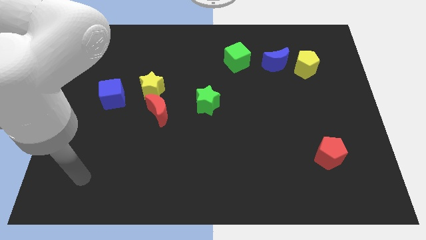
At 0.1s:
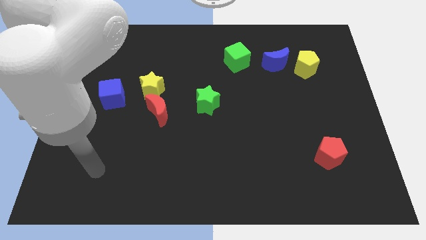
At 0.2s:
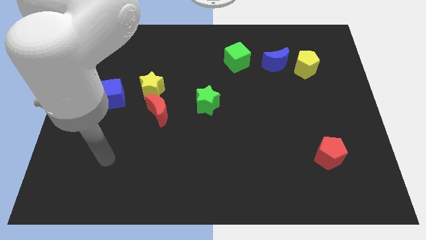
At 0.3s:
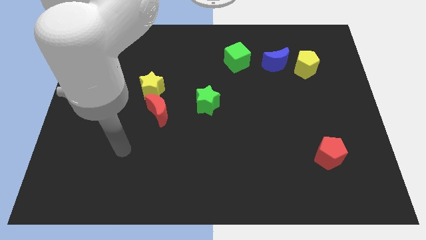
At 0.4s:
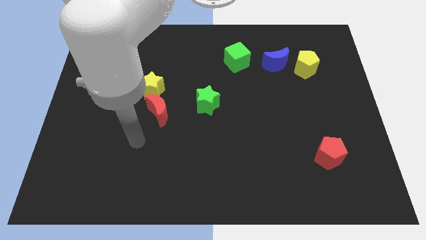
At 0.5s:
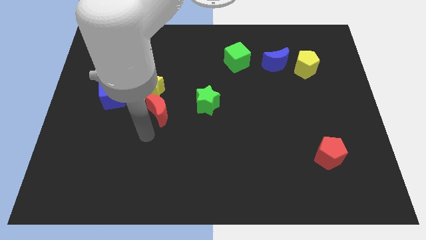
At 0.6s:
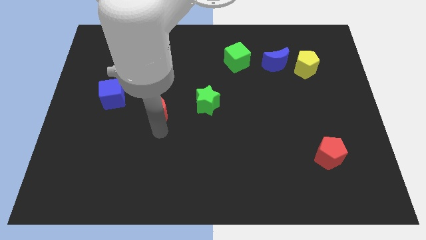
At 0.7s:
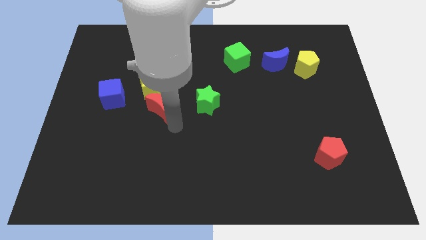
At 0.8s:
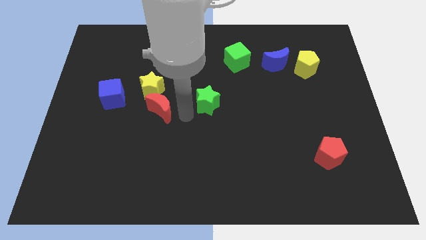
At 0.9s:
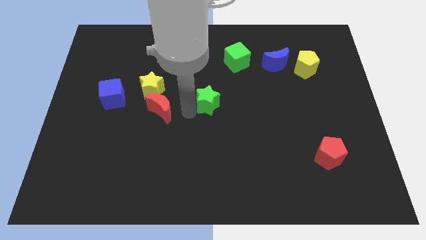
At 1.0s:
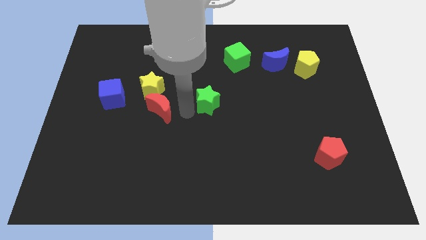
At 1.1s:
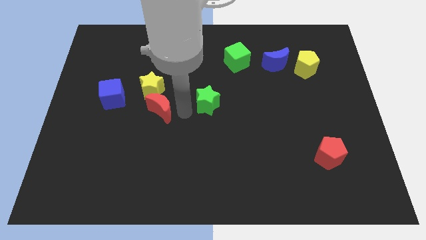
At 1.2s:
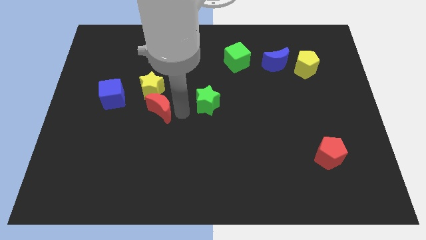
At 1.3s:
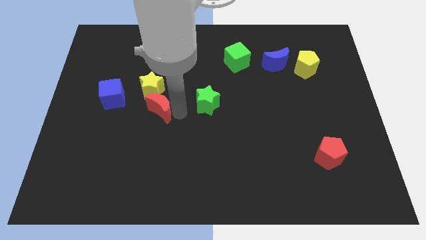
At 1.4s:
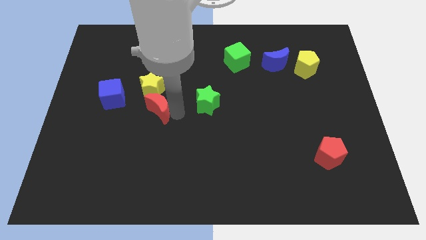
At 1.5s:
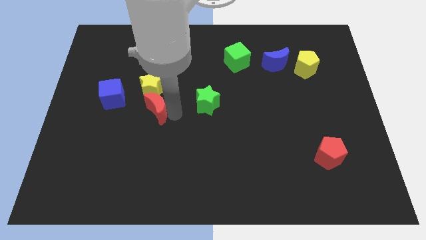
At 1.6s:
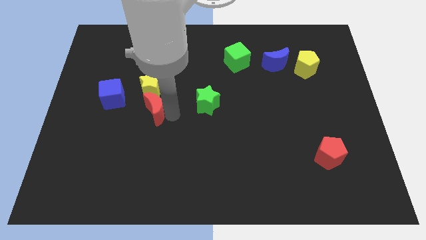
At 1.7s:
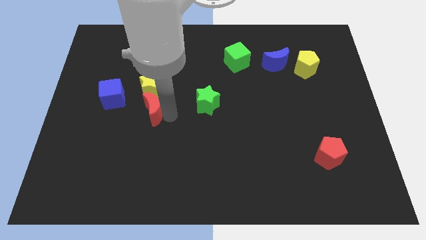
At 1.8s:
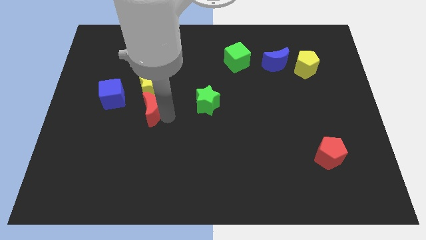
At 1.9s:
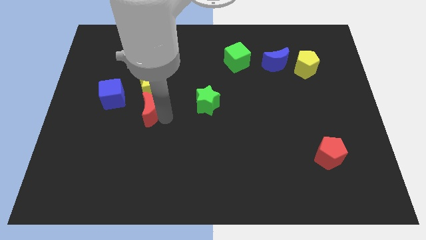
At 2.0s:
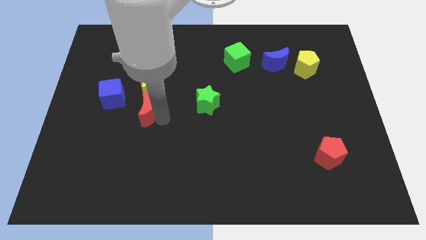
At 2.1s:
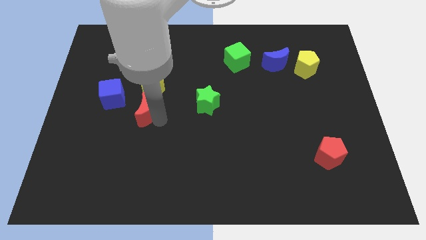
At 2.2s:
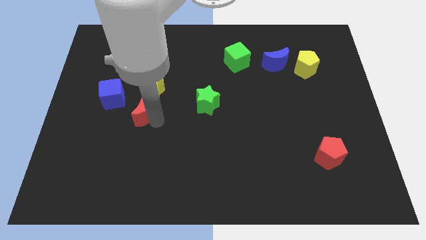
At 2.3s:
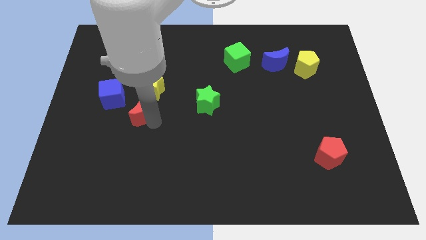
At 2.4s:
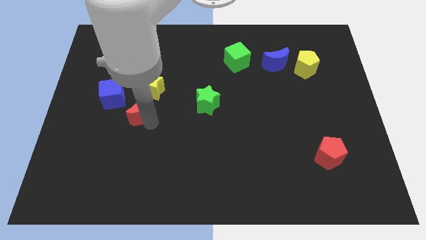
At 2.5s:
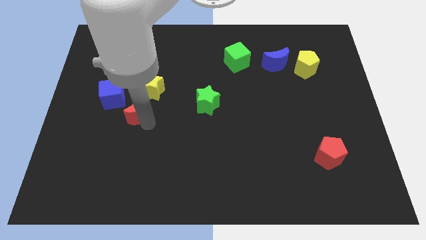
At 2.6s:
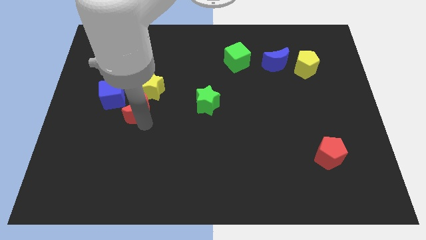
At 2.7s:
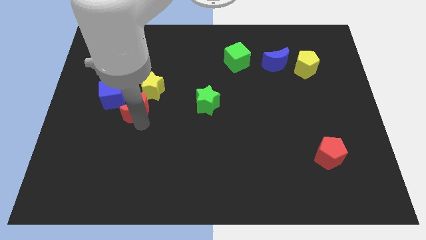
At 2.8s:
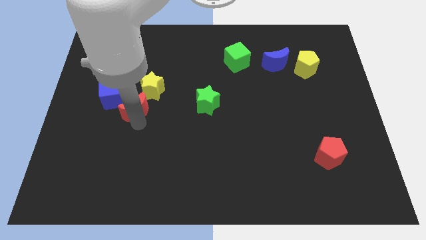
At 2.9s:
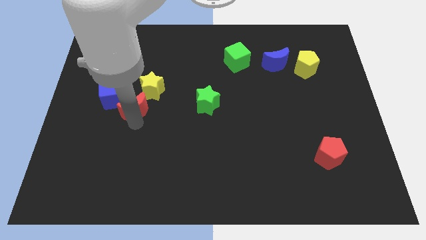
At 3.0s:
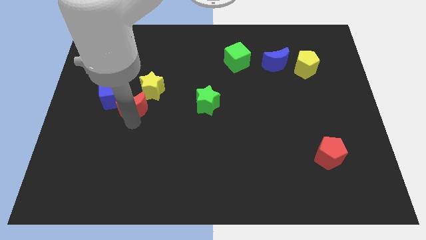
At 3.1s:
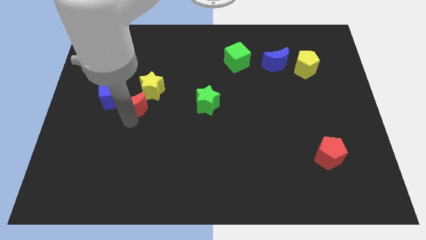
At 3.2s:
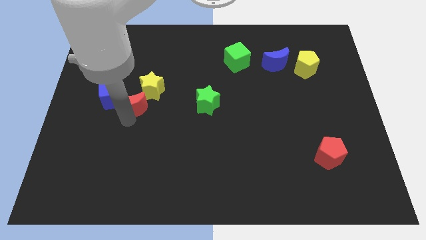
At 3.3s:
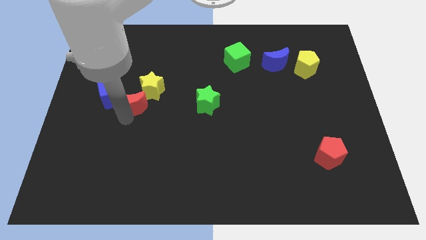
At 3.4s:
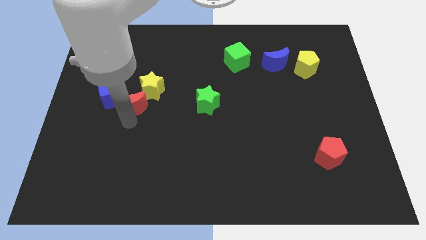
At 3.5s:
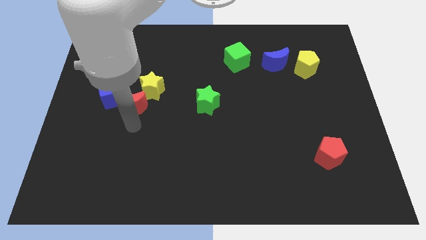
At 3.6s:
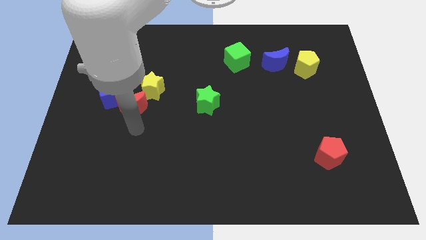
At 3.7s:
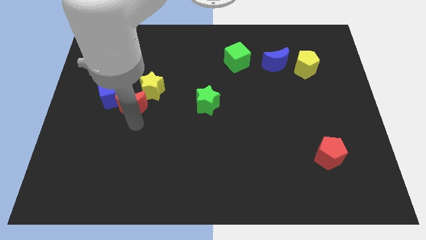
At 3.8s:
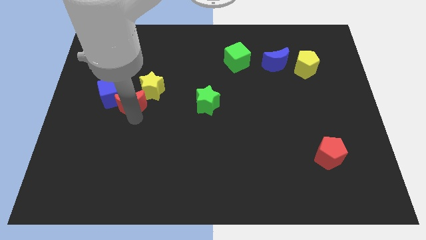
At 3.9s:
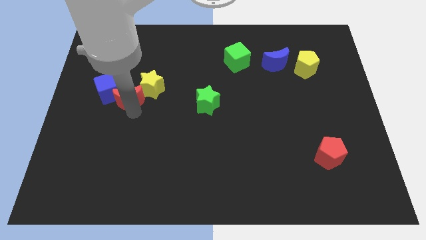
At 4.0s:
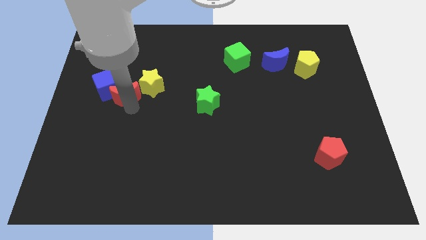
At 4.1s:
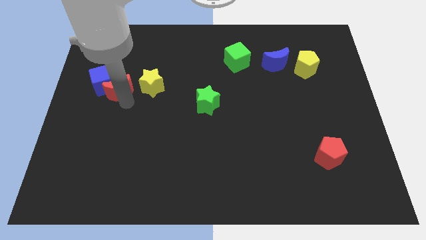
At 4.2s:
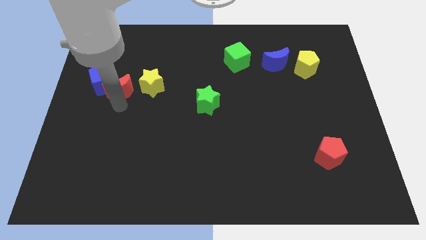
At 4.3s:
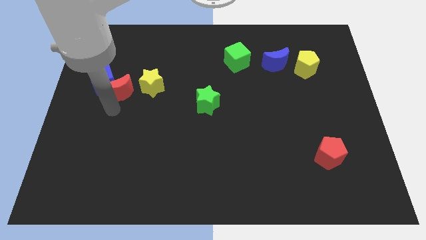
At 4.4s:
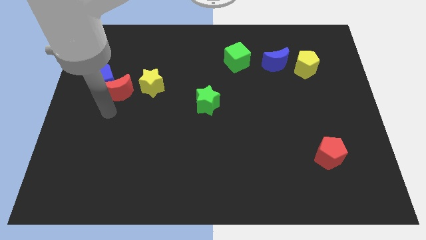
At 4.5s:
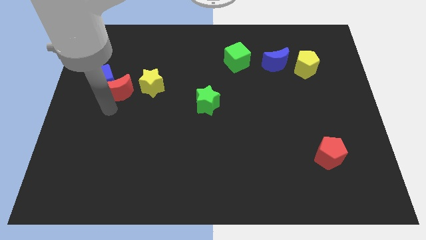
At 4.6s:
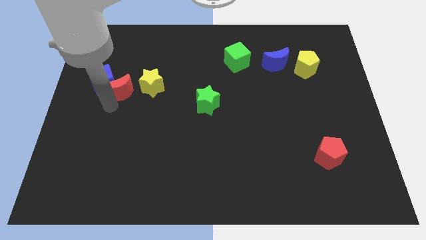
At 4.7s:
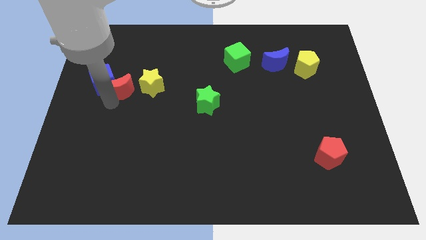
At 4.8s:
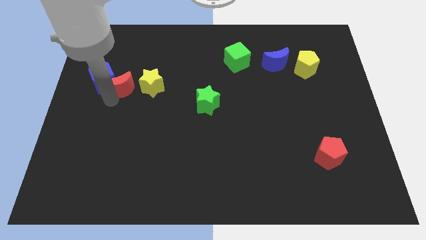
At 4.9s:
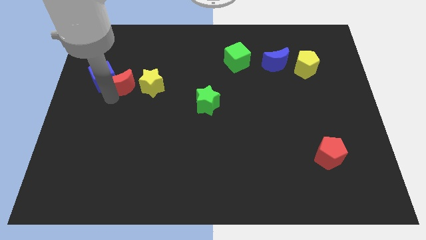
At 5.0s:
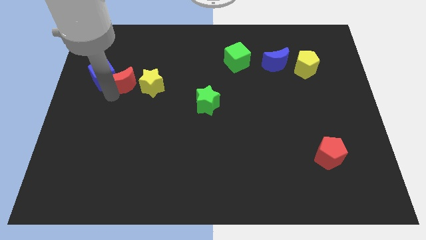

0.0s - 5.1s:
put the red moon to the top left side of the yellow star

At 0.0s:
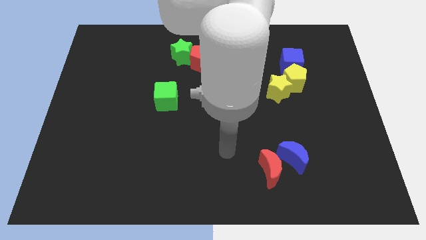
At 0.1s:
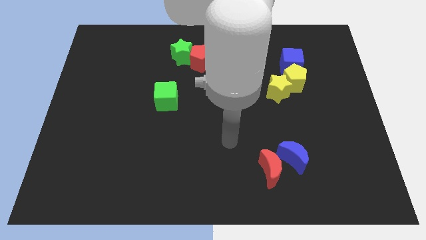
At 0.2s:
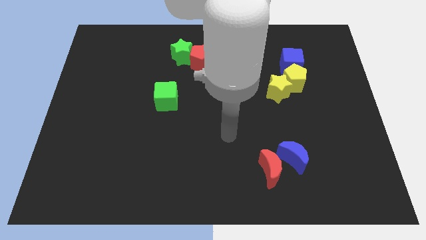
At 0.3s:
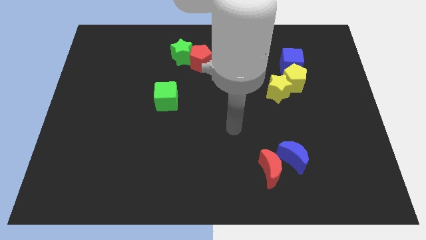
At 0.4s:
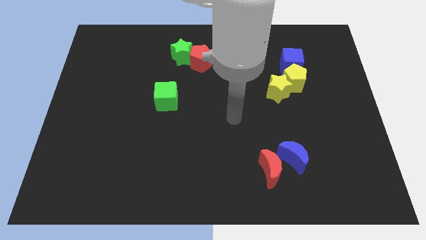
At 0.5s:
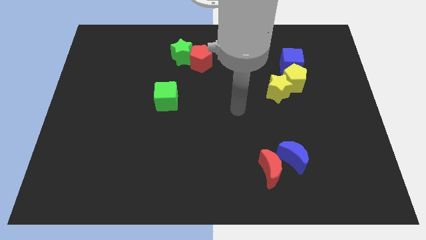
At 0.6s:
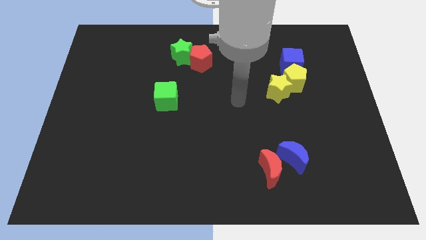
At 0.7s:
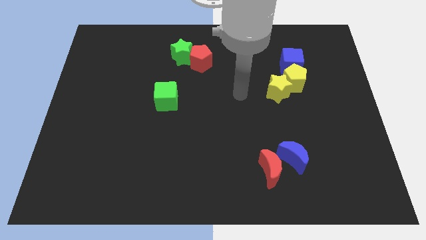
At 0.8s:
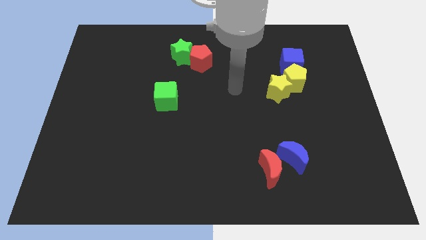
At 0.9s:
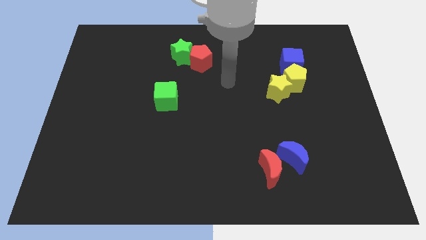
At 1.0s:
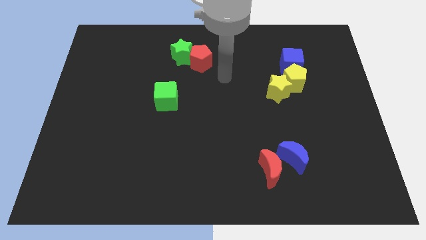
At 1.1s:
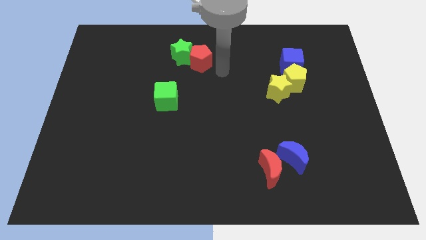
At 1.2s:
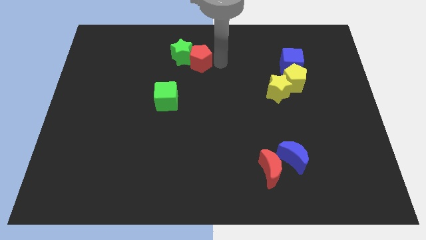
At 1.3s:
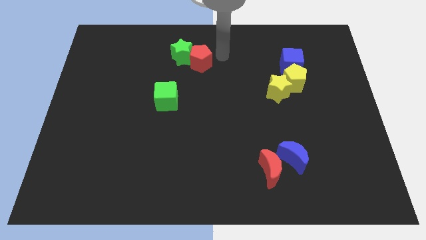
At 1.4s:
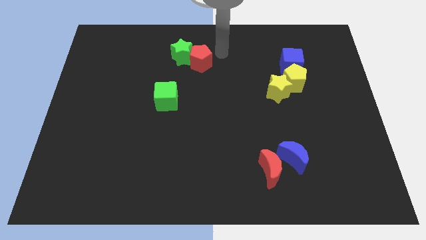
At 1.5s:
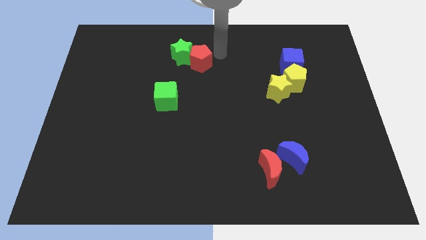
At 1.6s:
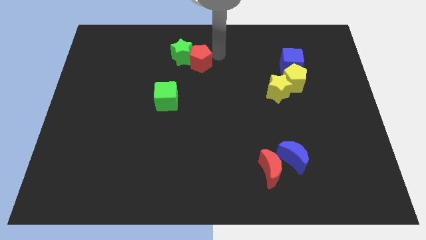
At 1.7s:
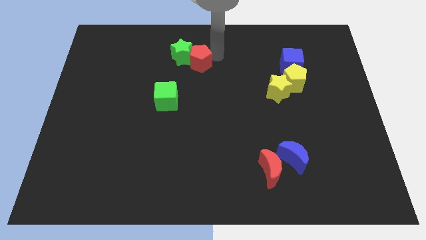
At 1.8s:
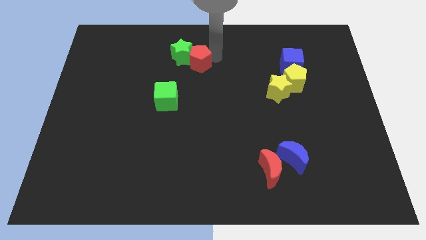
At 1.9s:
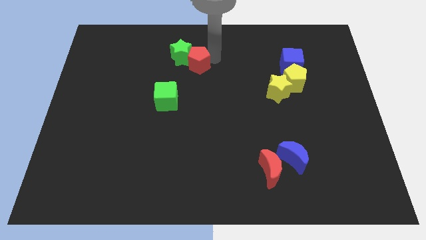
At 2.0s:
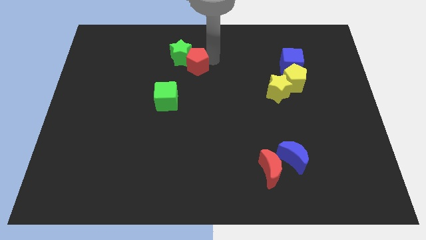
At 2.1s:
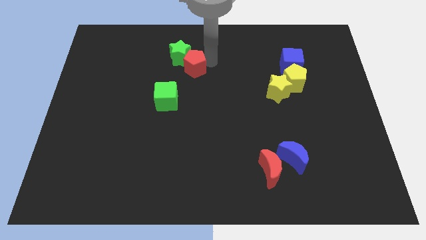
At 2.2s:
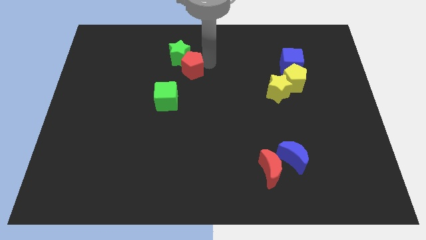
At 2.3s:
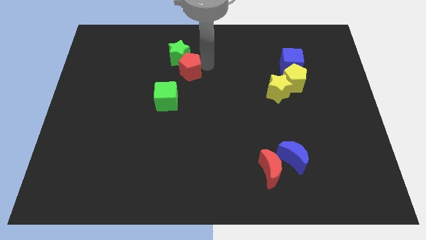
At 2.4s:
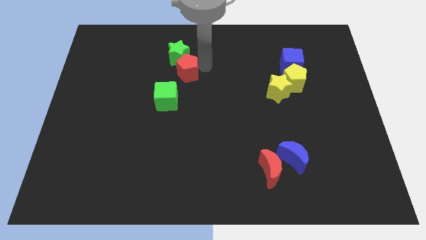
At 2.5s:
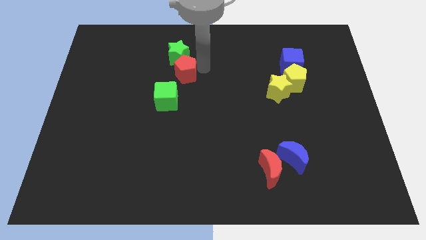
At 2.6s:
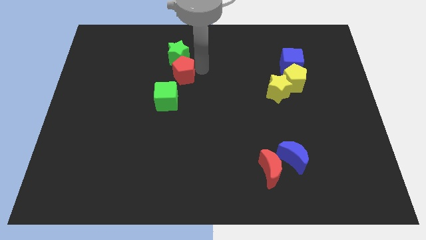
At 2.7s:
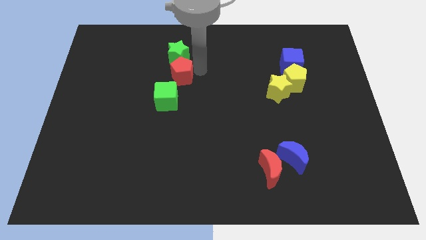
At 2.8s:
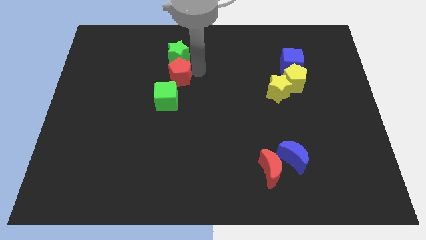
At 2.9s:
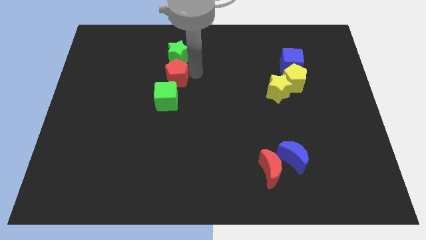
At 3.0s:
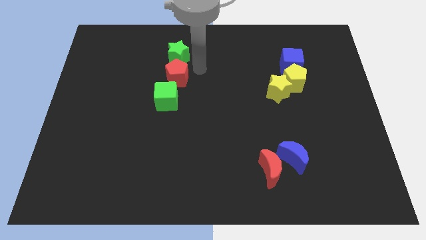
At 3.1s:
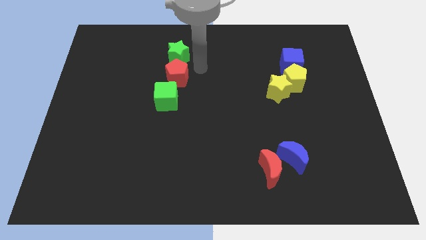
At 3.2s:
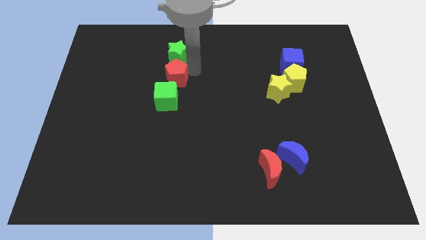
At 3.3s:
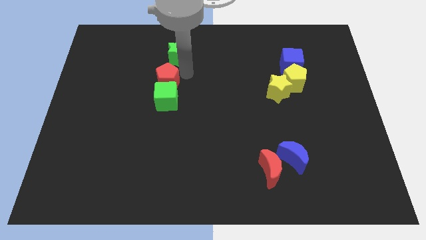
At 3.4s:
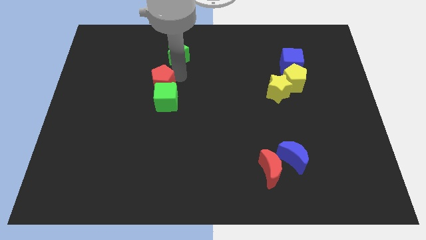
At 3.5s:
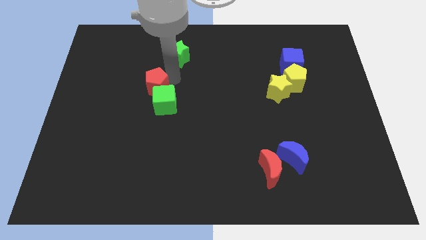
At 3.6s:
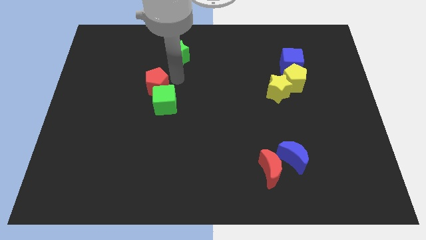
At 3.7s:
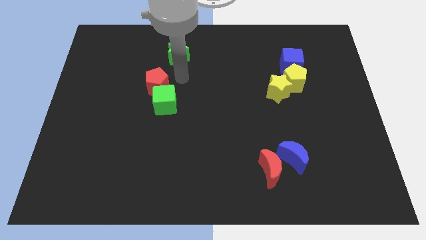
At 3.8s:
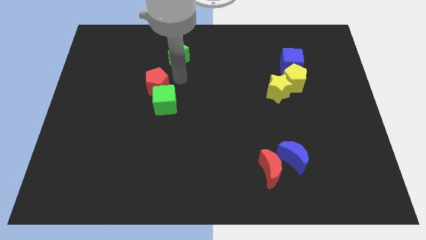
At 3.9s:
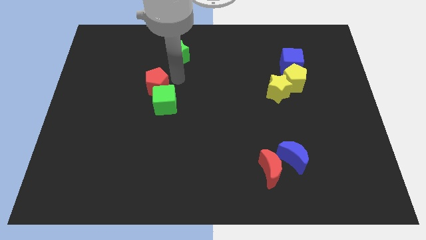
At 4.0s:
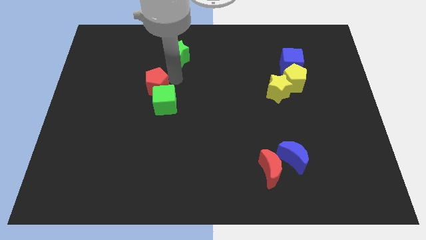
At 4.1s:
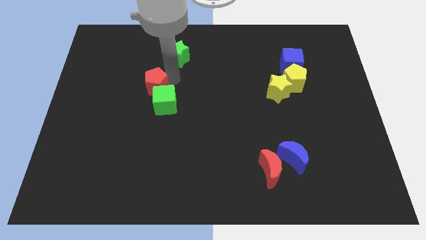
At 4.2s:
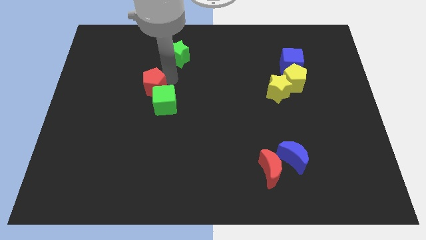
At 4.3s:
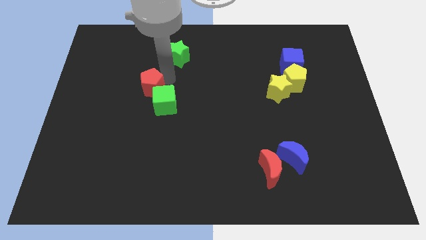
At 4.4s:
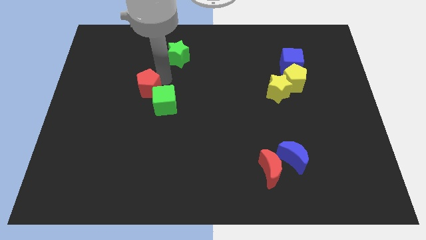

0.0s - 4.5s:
slide the red pentagon to the left of the green cube
